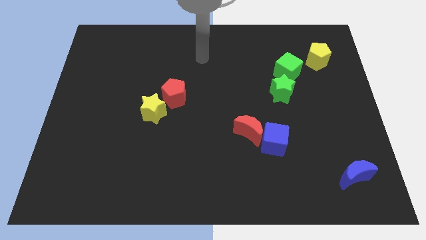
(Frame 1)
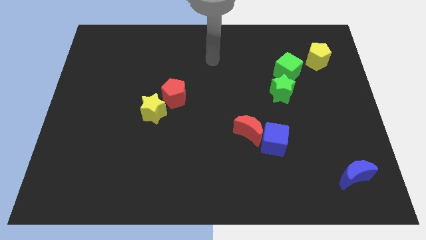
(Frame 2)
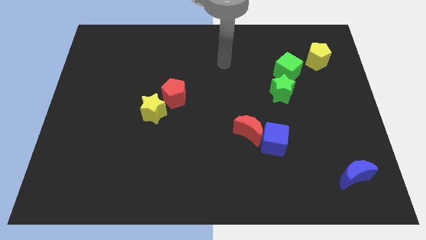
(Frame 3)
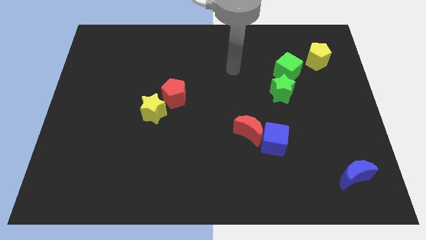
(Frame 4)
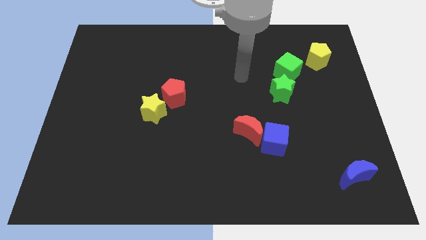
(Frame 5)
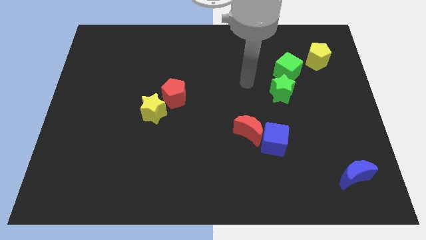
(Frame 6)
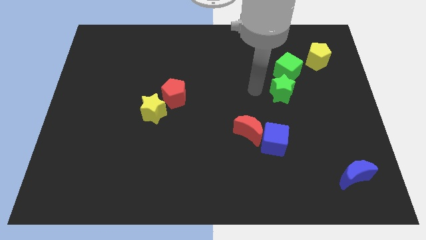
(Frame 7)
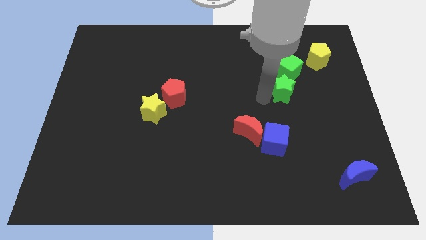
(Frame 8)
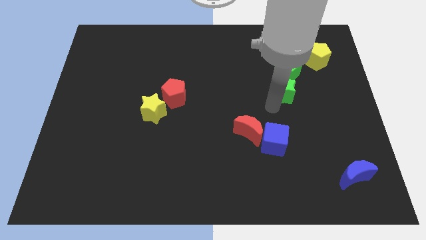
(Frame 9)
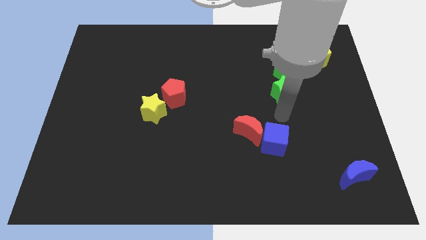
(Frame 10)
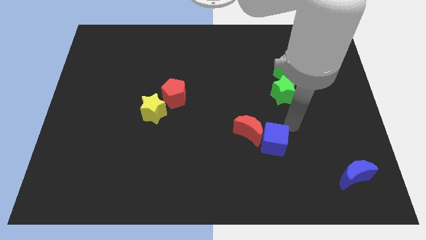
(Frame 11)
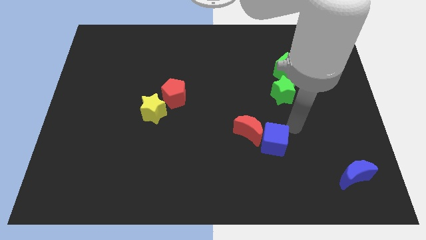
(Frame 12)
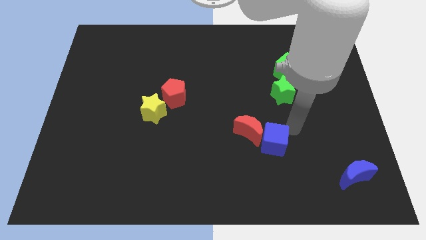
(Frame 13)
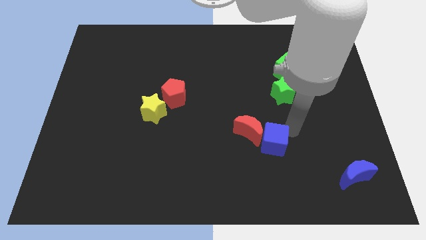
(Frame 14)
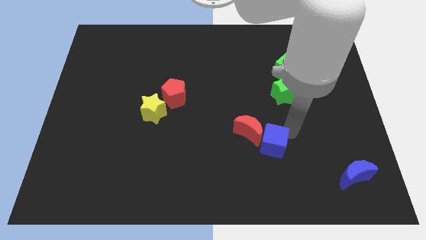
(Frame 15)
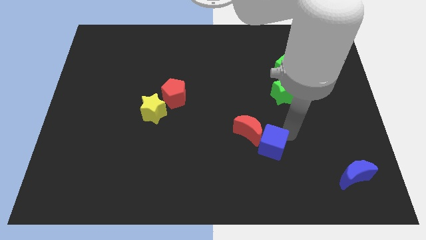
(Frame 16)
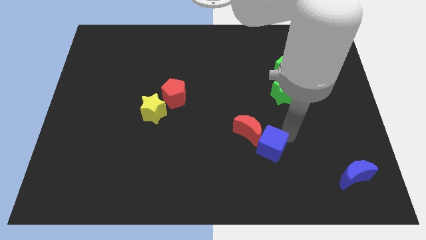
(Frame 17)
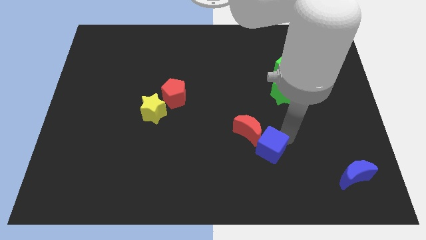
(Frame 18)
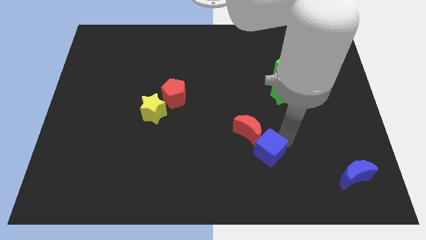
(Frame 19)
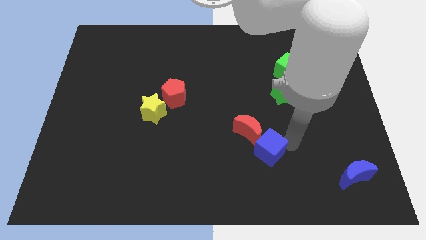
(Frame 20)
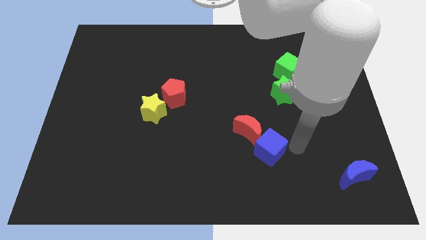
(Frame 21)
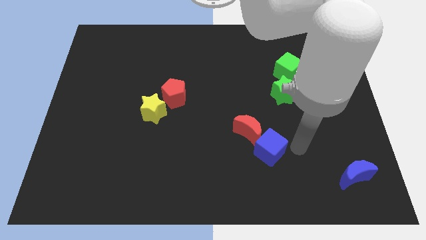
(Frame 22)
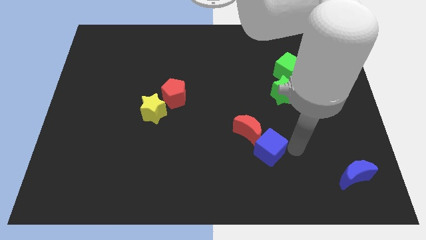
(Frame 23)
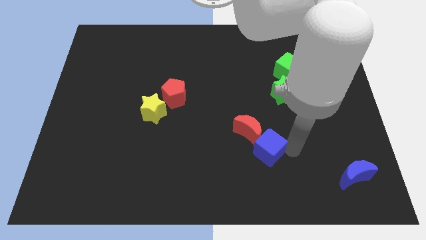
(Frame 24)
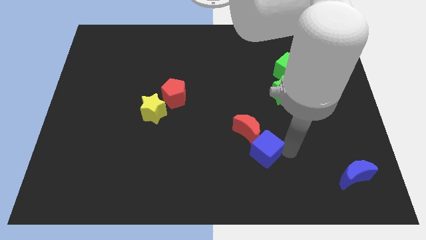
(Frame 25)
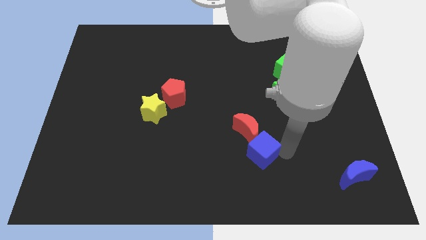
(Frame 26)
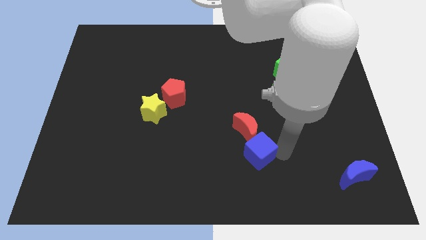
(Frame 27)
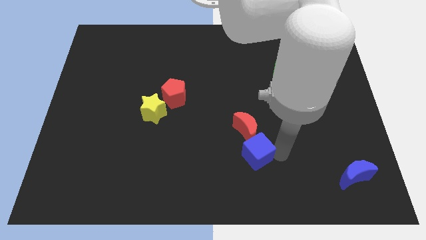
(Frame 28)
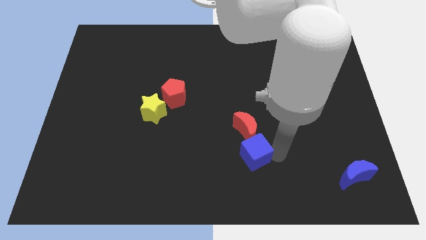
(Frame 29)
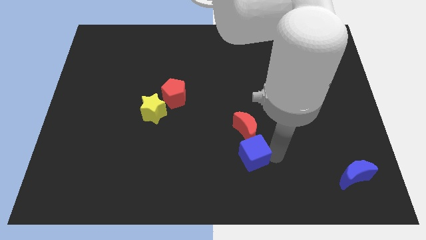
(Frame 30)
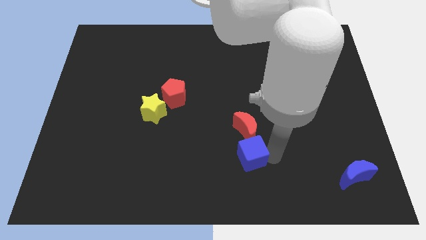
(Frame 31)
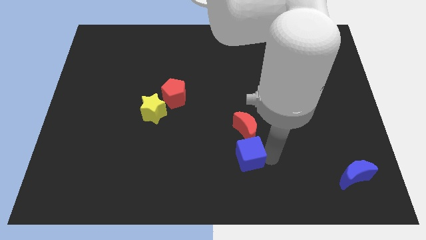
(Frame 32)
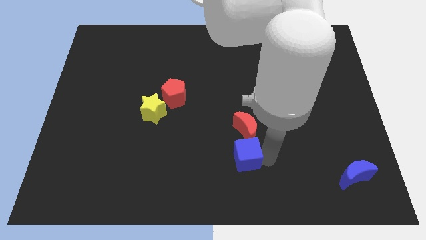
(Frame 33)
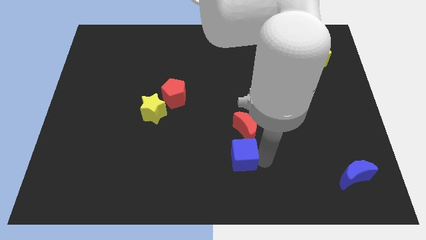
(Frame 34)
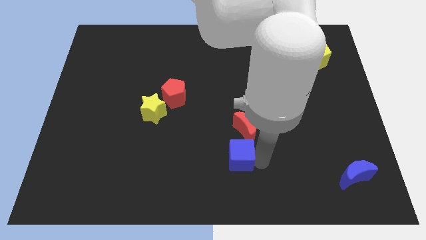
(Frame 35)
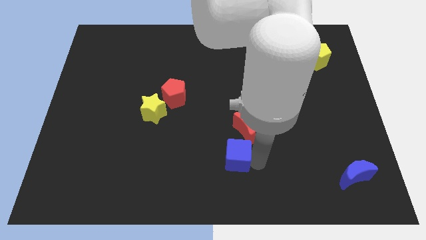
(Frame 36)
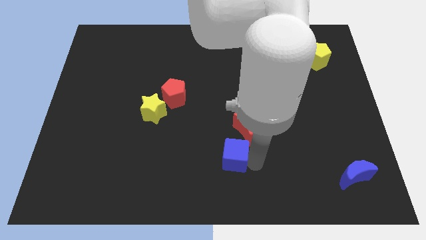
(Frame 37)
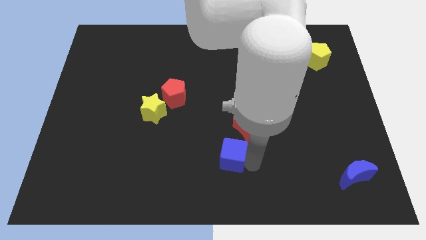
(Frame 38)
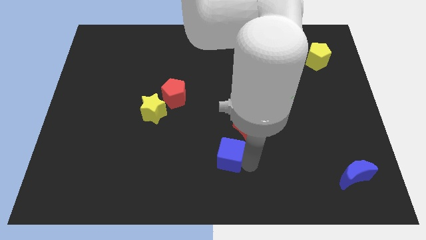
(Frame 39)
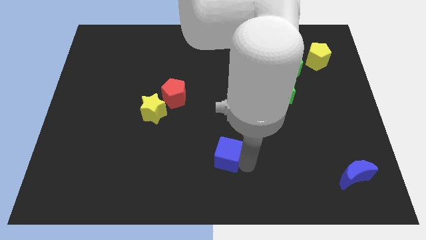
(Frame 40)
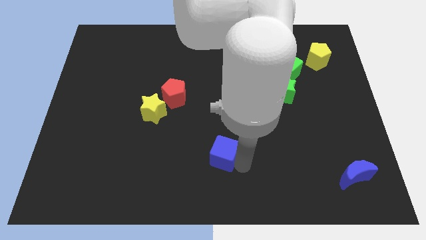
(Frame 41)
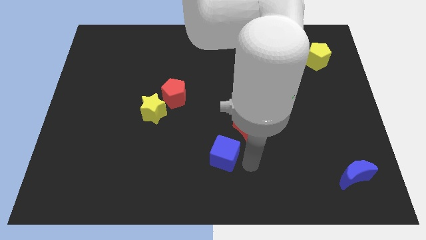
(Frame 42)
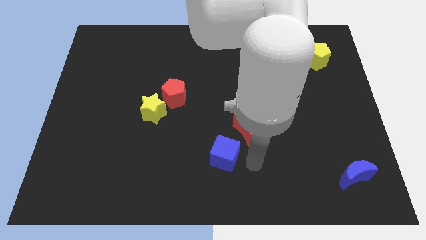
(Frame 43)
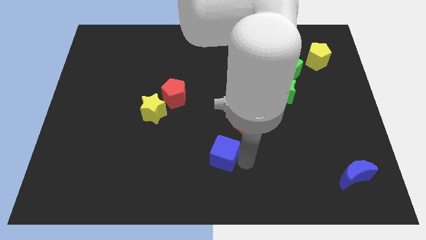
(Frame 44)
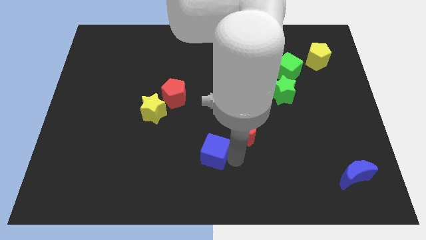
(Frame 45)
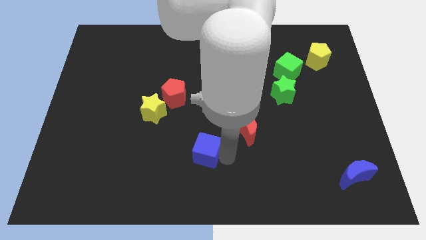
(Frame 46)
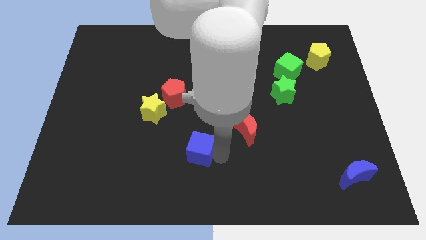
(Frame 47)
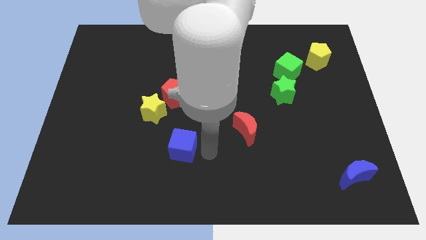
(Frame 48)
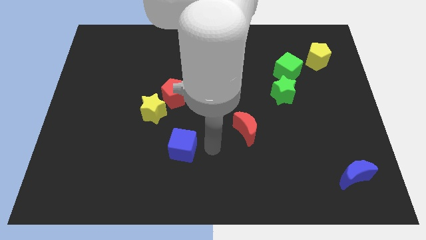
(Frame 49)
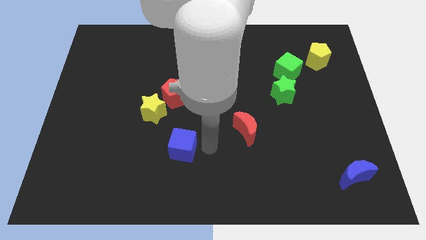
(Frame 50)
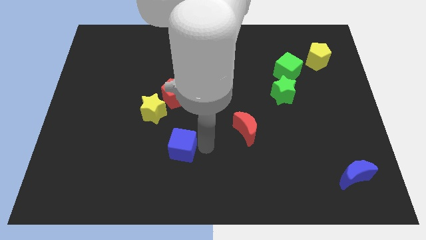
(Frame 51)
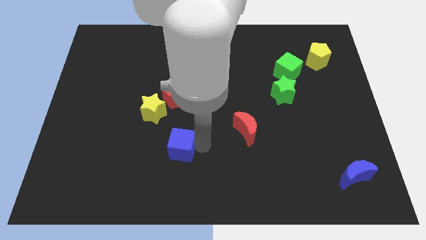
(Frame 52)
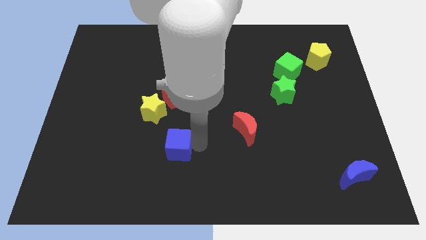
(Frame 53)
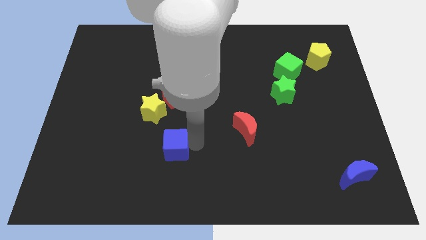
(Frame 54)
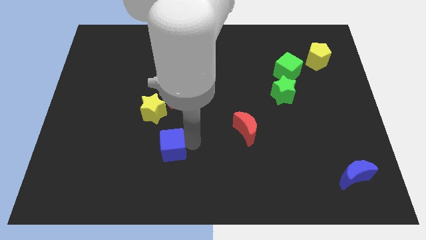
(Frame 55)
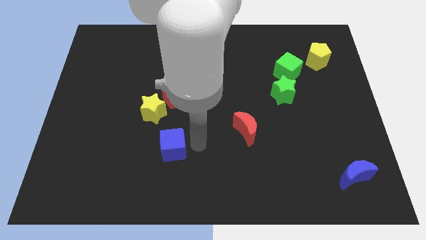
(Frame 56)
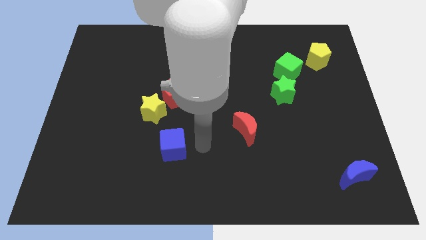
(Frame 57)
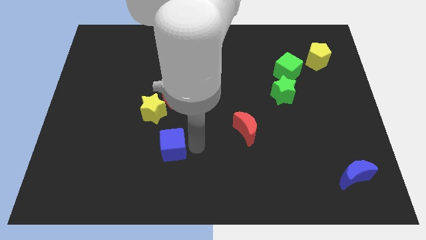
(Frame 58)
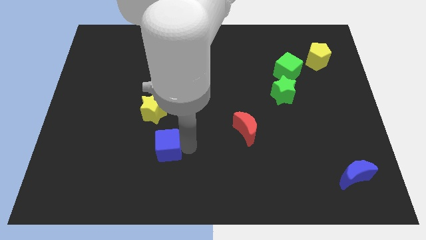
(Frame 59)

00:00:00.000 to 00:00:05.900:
move the blue cube to the bottom of the yellow star

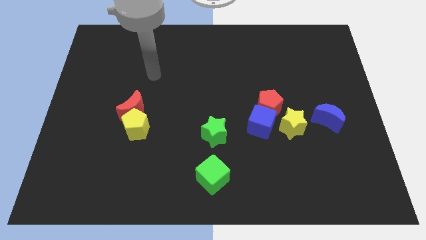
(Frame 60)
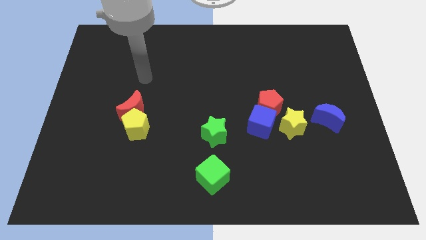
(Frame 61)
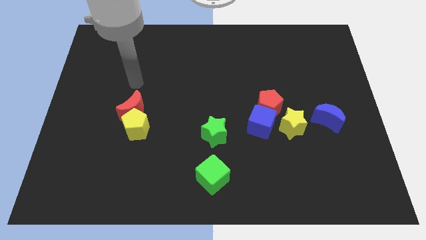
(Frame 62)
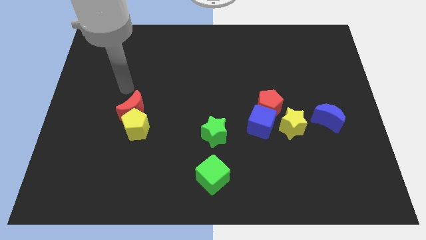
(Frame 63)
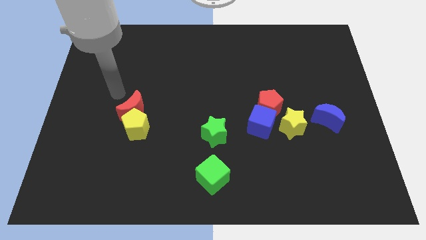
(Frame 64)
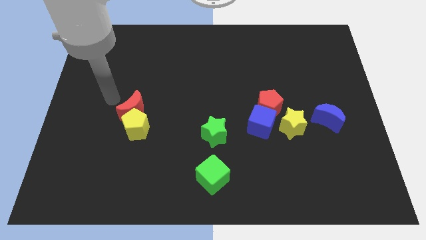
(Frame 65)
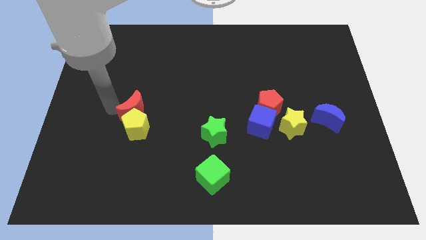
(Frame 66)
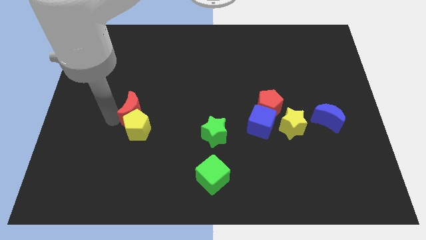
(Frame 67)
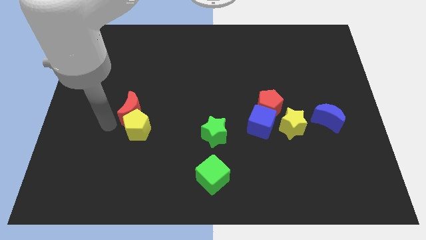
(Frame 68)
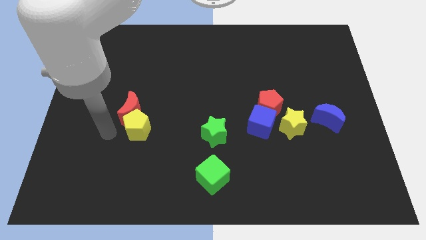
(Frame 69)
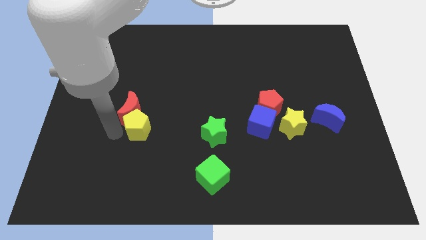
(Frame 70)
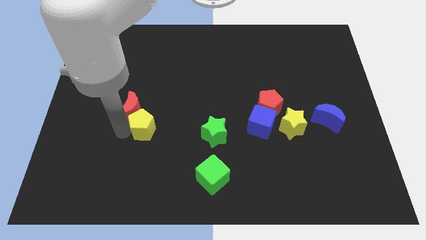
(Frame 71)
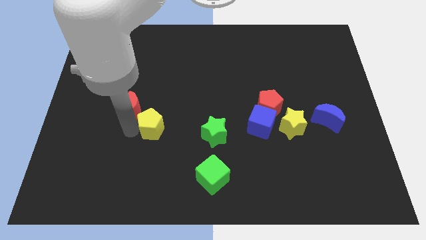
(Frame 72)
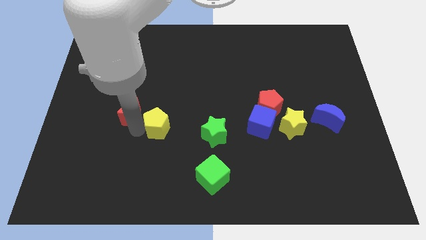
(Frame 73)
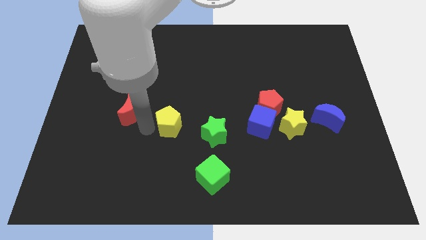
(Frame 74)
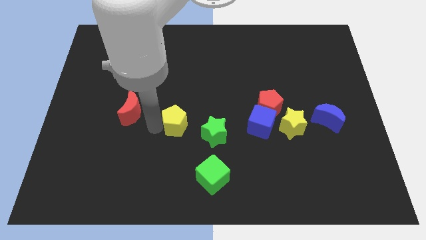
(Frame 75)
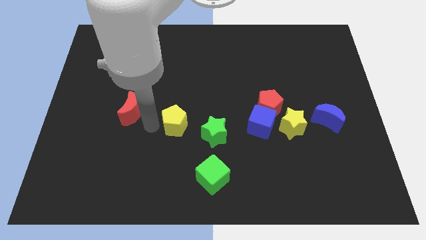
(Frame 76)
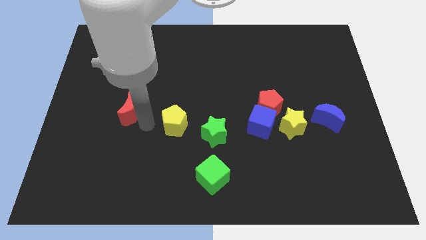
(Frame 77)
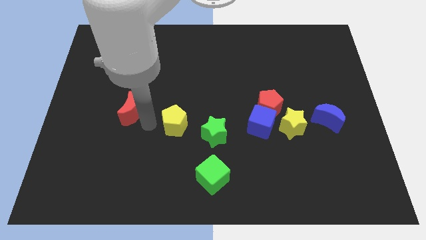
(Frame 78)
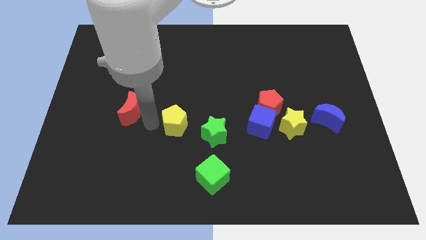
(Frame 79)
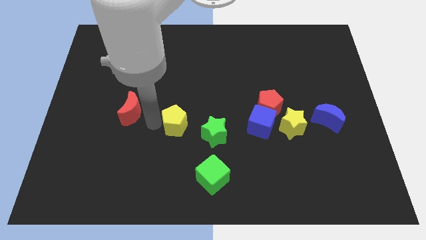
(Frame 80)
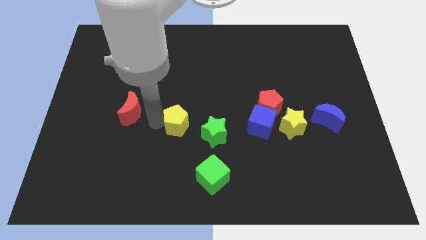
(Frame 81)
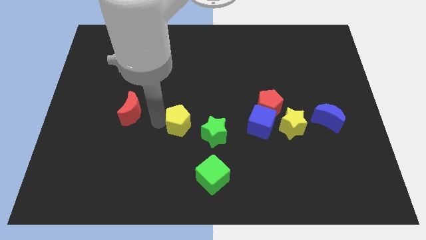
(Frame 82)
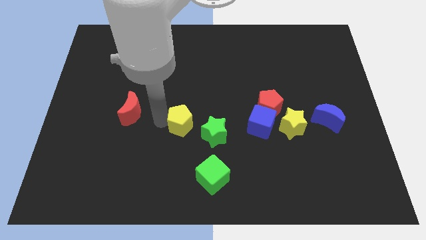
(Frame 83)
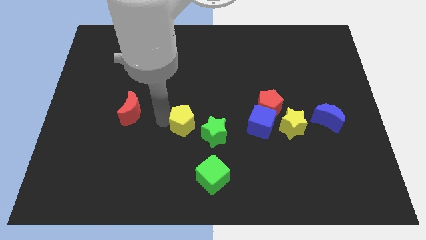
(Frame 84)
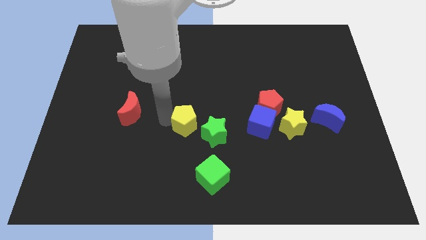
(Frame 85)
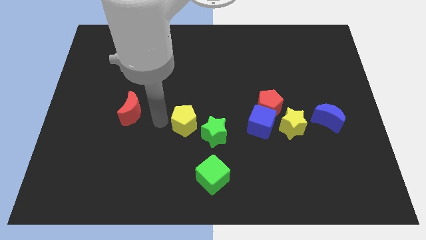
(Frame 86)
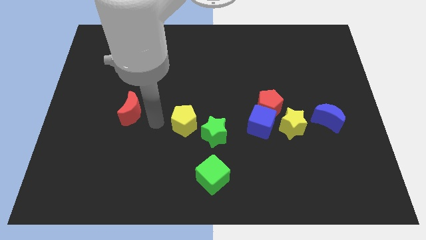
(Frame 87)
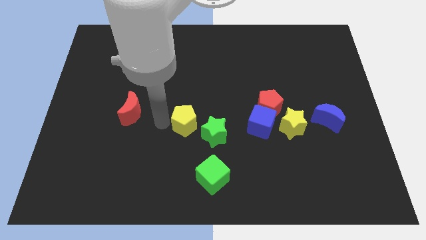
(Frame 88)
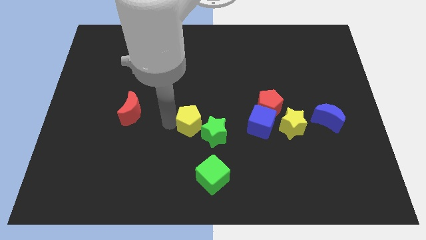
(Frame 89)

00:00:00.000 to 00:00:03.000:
move the yellow pentagon to the left of the blue cube
